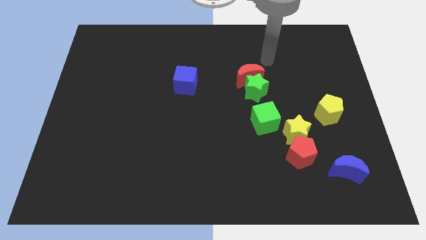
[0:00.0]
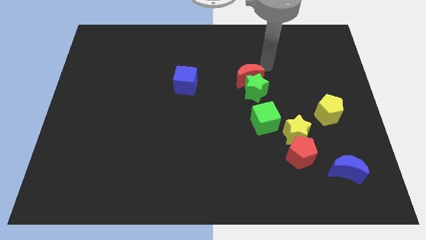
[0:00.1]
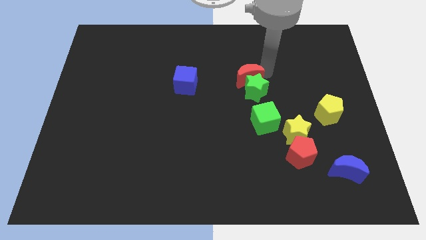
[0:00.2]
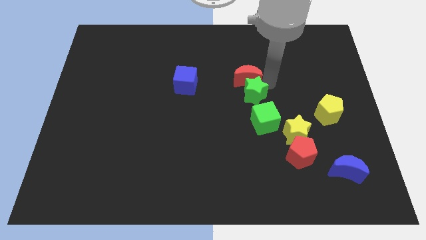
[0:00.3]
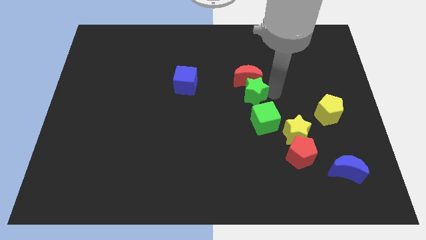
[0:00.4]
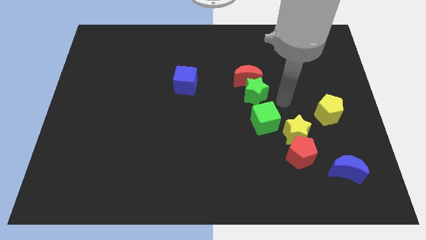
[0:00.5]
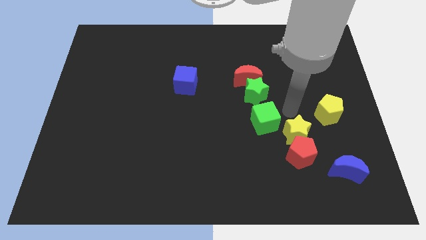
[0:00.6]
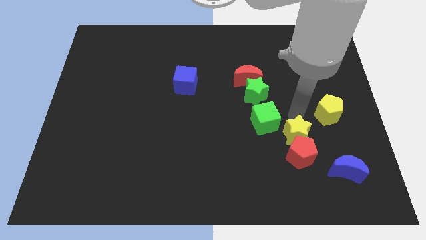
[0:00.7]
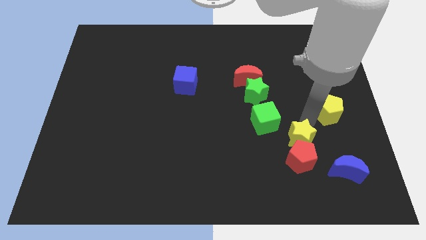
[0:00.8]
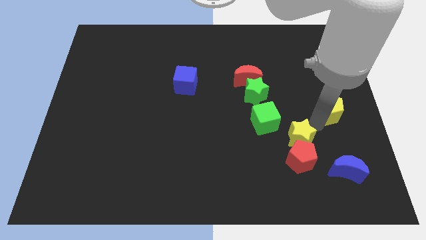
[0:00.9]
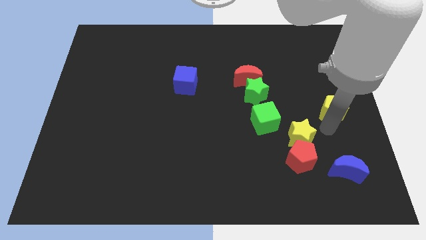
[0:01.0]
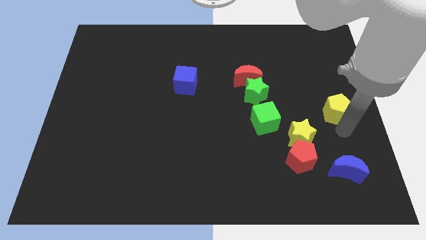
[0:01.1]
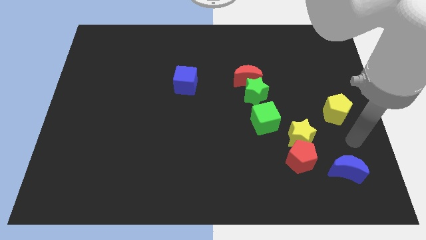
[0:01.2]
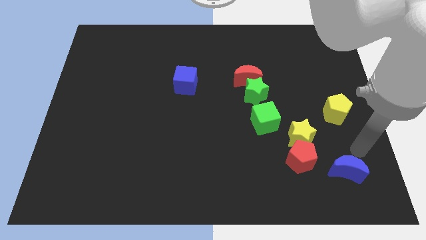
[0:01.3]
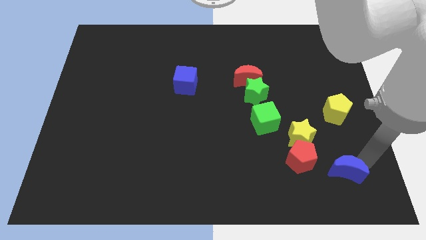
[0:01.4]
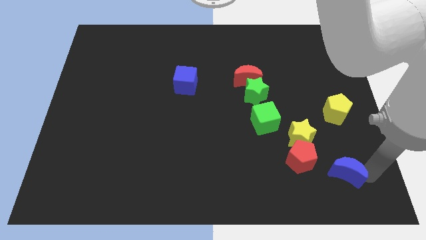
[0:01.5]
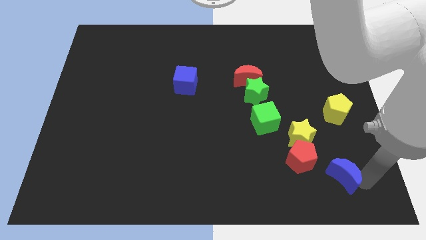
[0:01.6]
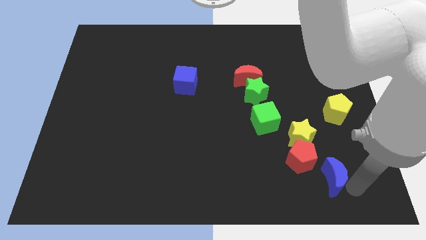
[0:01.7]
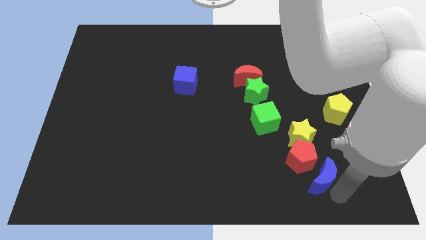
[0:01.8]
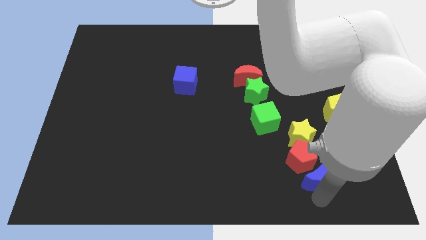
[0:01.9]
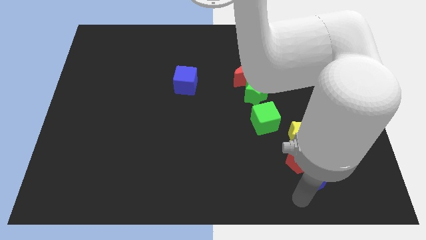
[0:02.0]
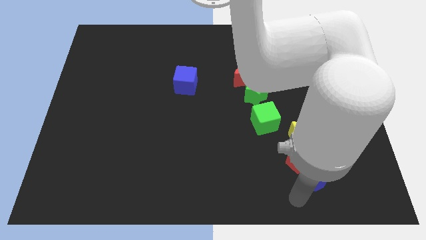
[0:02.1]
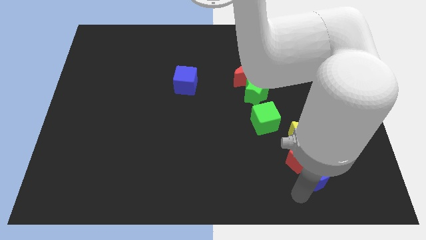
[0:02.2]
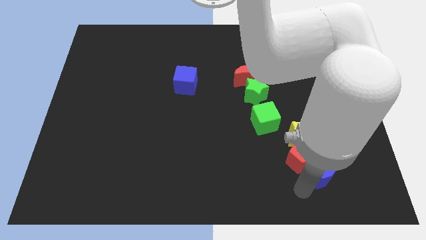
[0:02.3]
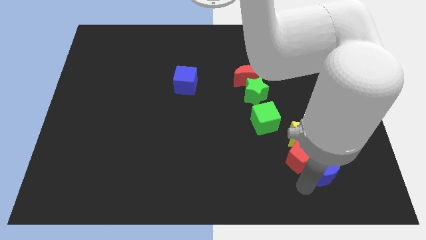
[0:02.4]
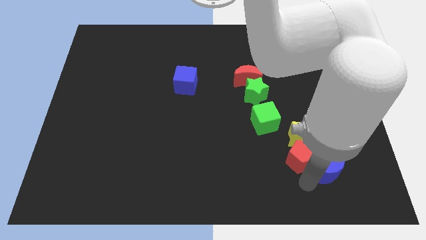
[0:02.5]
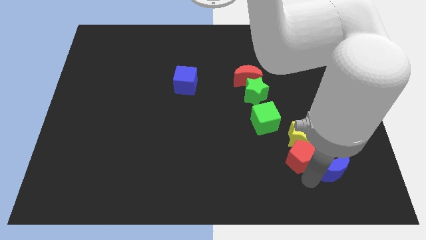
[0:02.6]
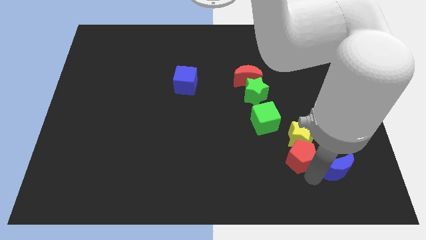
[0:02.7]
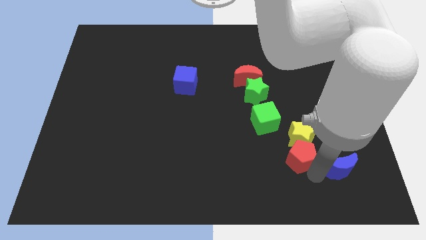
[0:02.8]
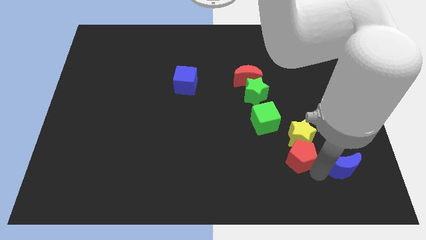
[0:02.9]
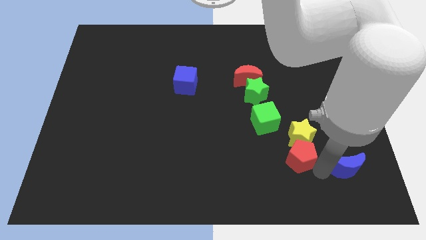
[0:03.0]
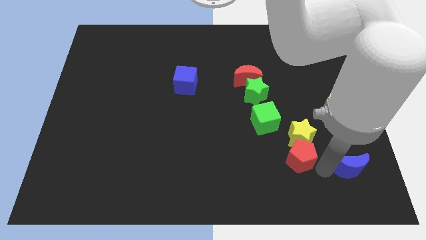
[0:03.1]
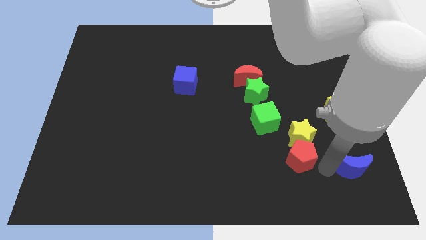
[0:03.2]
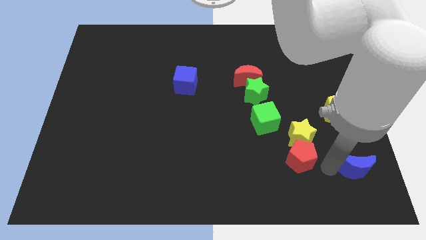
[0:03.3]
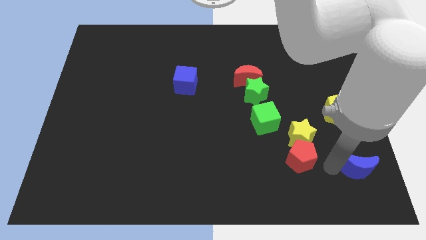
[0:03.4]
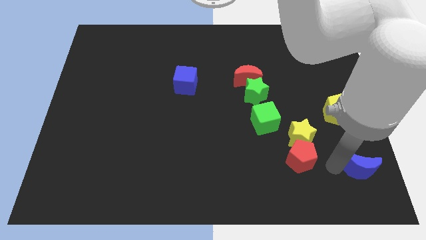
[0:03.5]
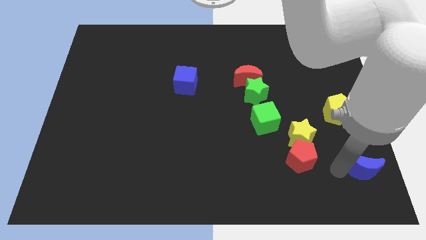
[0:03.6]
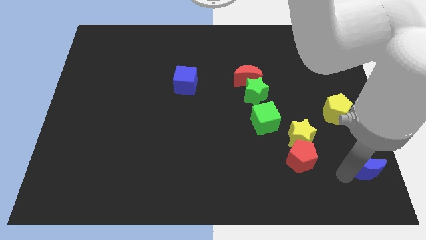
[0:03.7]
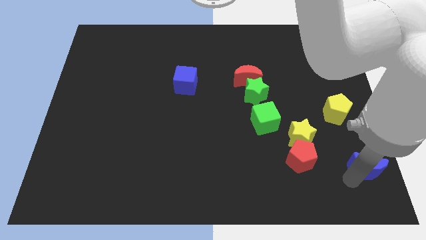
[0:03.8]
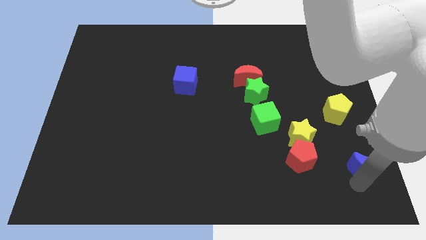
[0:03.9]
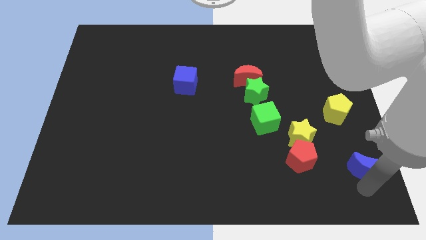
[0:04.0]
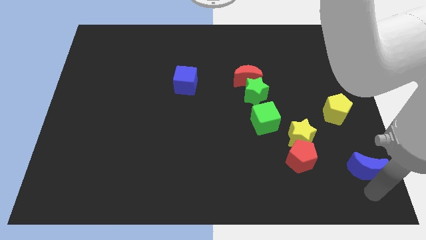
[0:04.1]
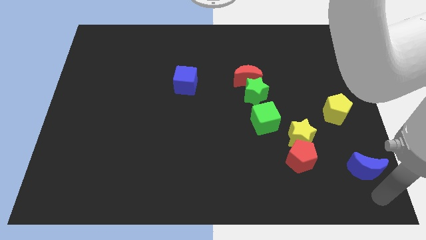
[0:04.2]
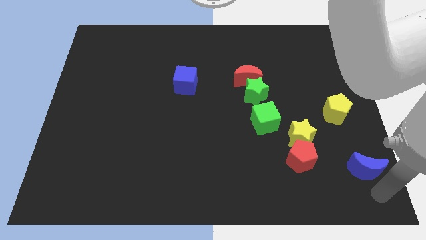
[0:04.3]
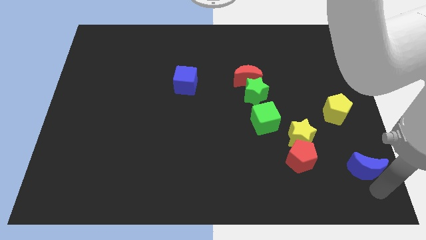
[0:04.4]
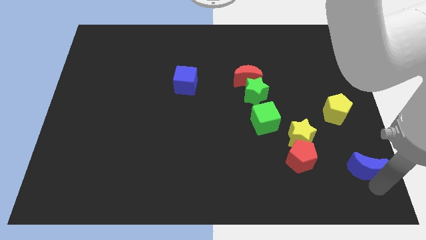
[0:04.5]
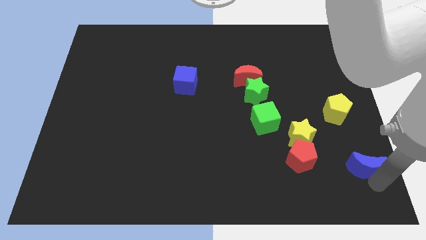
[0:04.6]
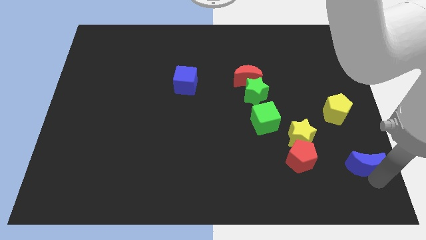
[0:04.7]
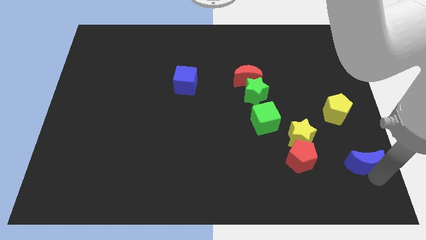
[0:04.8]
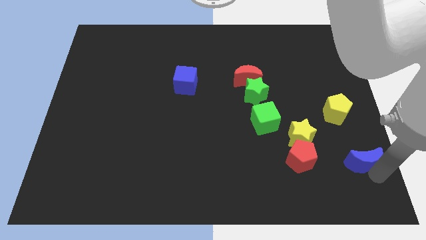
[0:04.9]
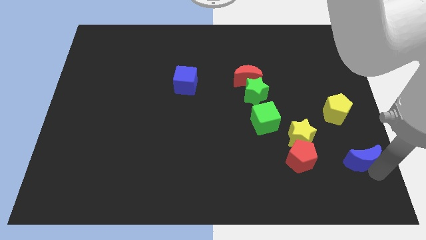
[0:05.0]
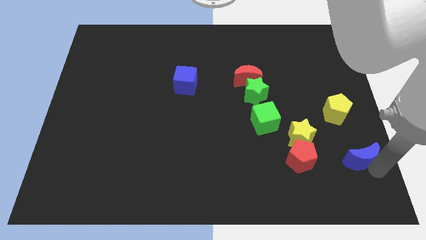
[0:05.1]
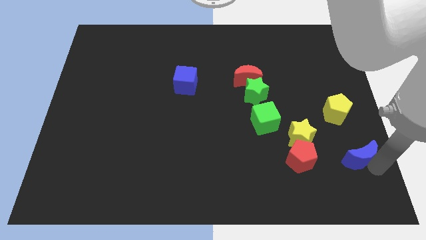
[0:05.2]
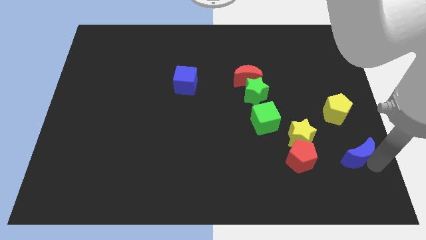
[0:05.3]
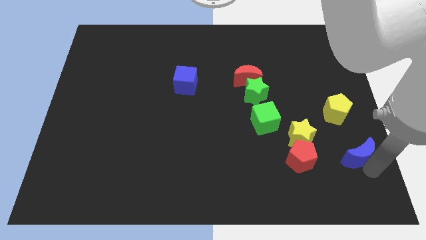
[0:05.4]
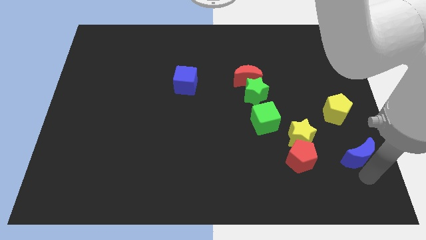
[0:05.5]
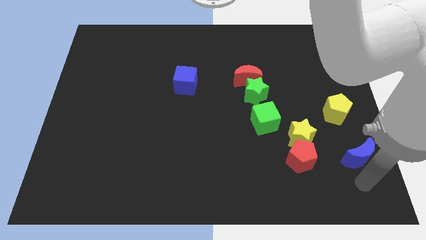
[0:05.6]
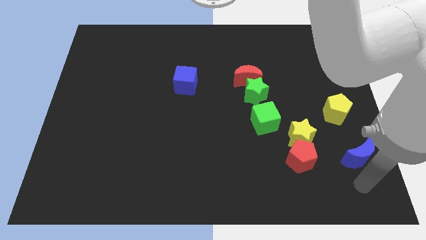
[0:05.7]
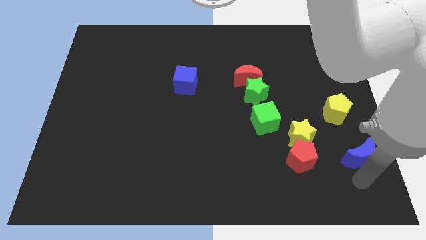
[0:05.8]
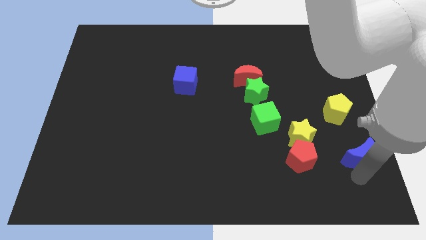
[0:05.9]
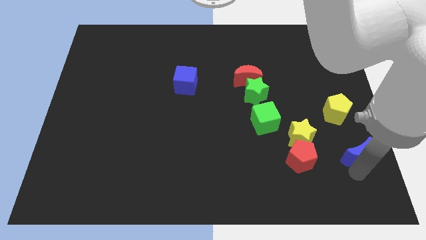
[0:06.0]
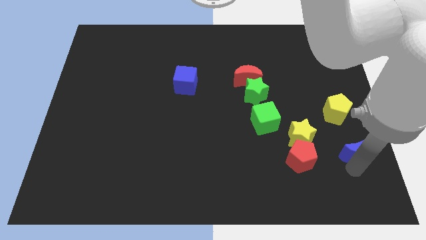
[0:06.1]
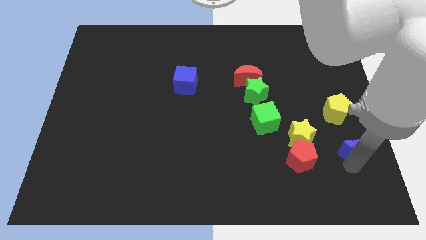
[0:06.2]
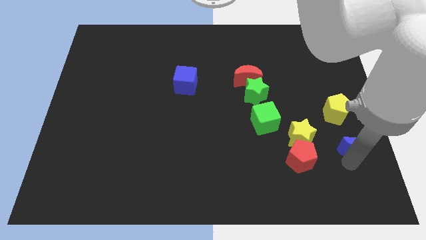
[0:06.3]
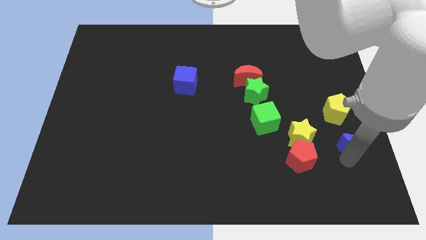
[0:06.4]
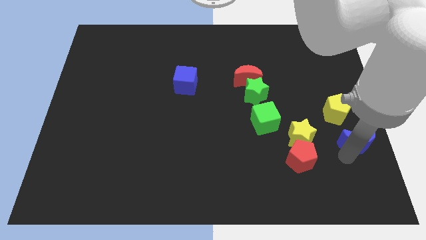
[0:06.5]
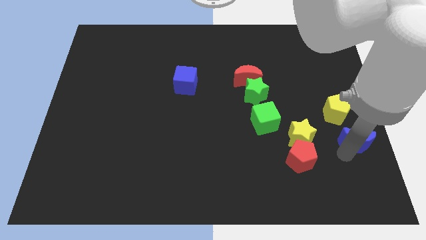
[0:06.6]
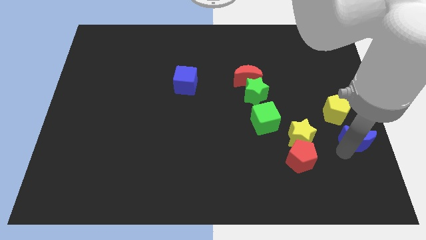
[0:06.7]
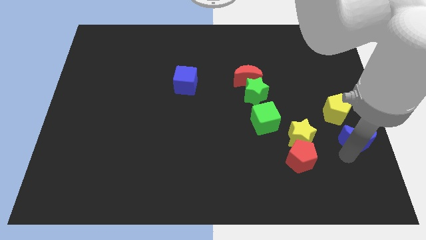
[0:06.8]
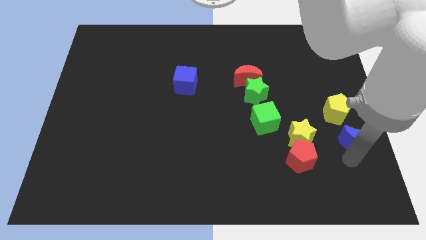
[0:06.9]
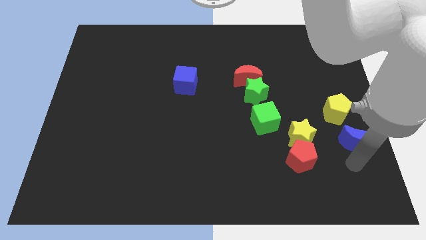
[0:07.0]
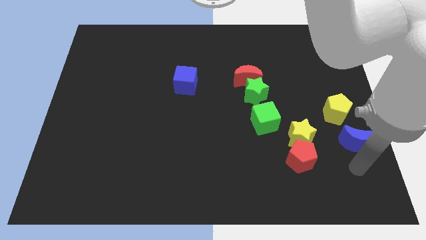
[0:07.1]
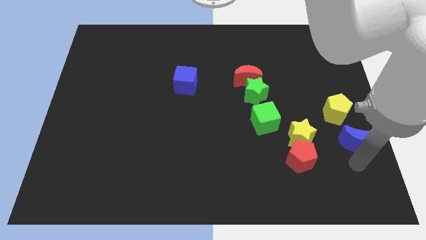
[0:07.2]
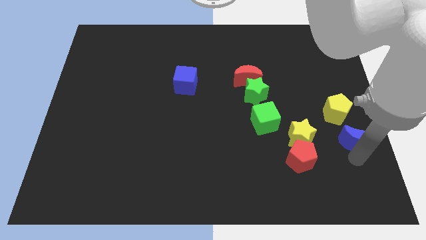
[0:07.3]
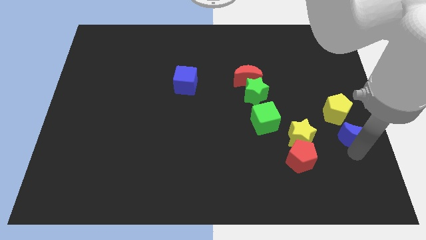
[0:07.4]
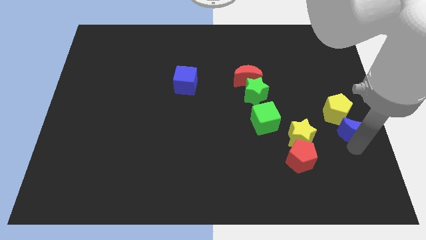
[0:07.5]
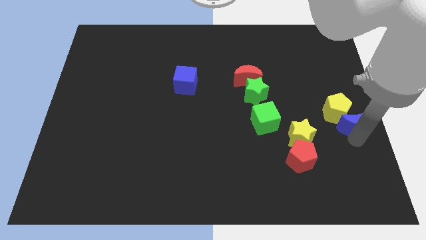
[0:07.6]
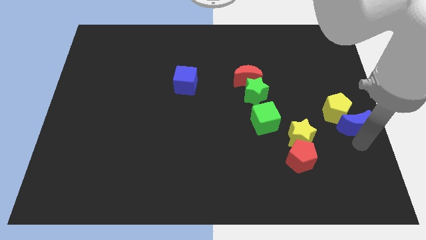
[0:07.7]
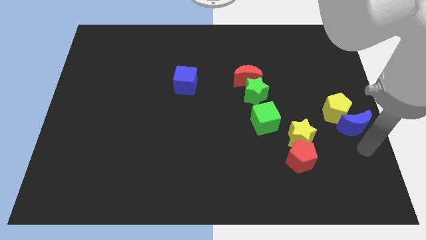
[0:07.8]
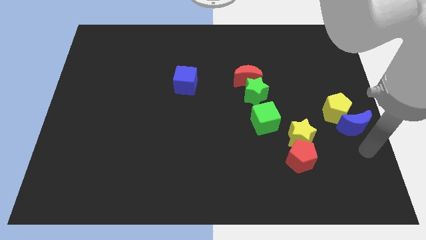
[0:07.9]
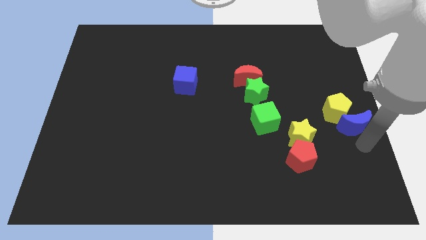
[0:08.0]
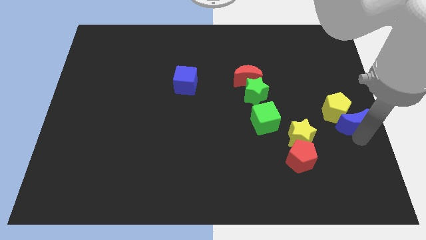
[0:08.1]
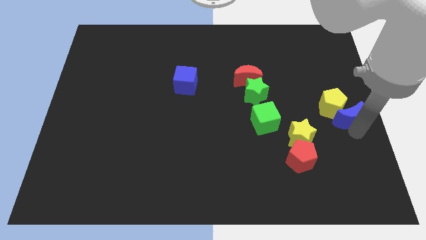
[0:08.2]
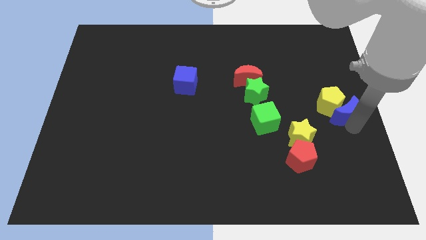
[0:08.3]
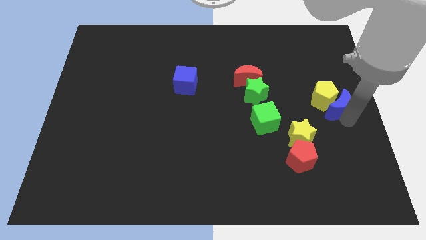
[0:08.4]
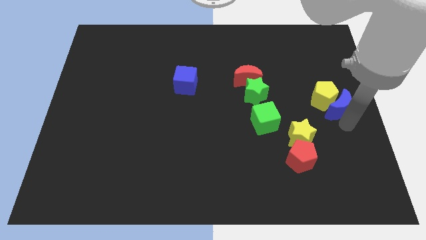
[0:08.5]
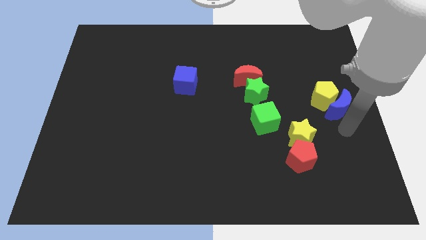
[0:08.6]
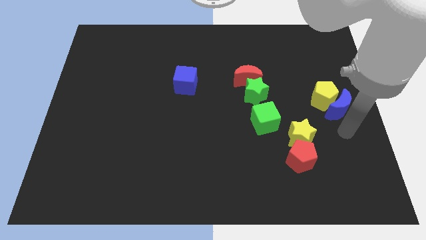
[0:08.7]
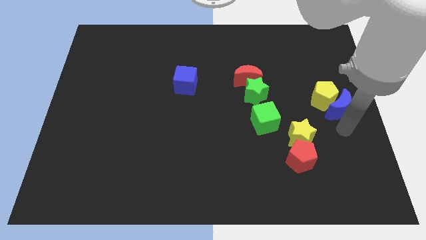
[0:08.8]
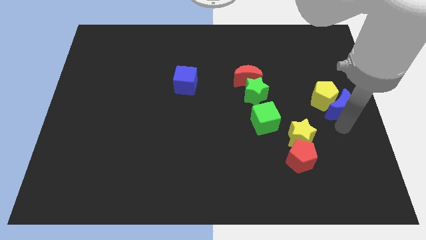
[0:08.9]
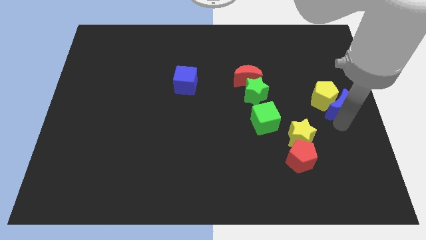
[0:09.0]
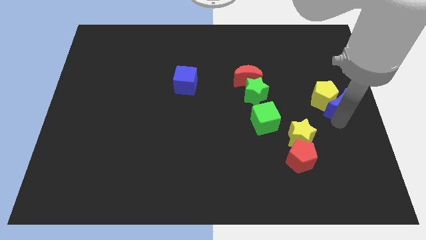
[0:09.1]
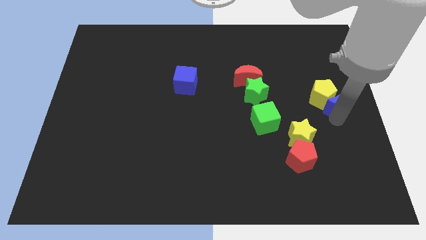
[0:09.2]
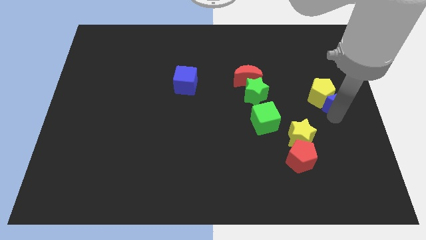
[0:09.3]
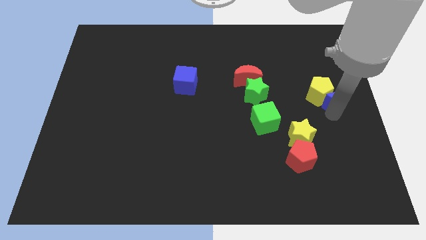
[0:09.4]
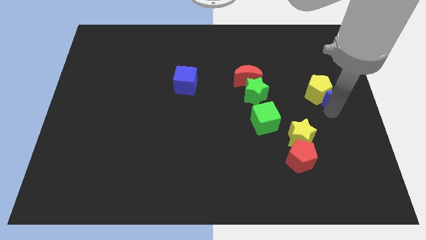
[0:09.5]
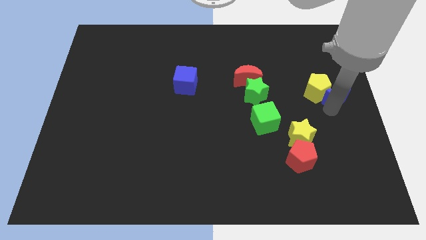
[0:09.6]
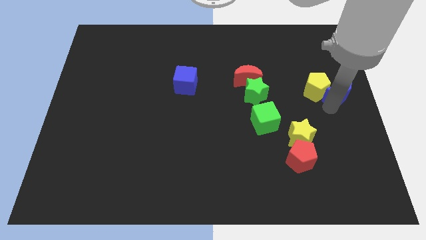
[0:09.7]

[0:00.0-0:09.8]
slide the blue moon up
